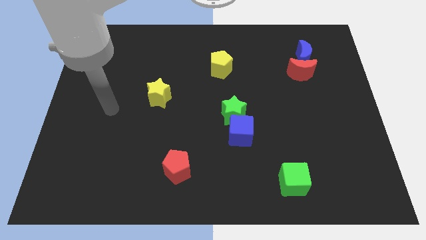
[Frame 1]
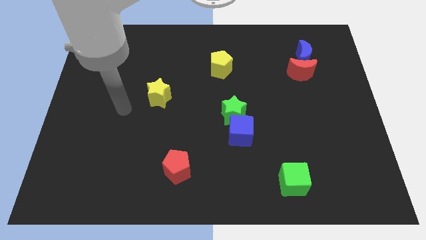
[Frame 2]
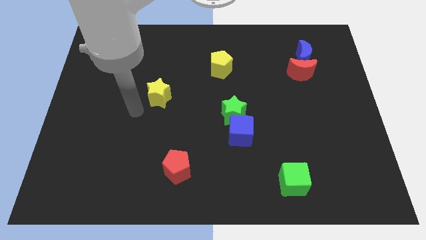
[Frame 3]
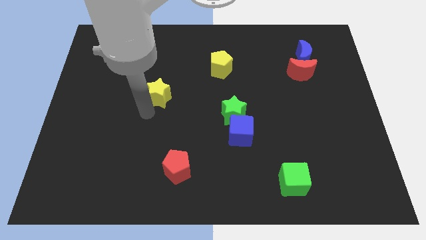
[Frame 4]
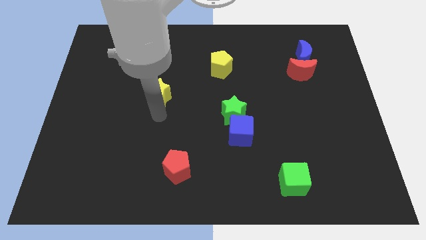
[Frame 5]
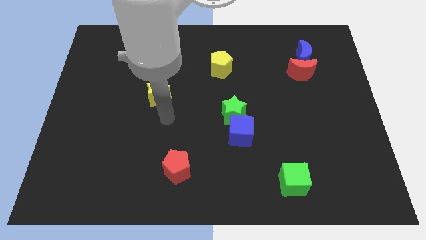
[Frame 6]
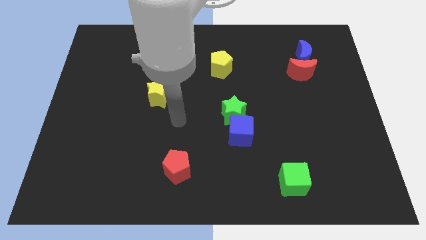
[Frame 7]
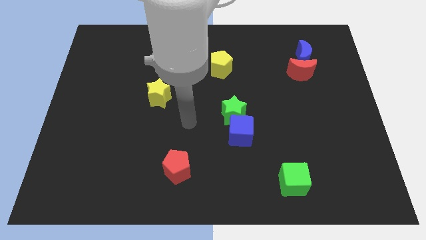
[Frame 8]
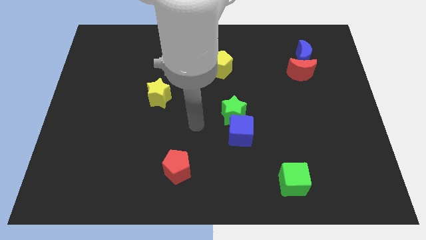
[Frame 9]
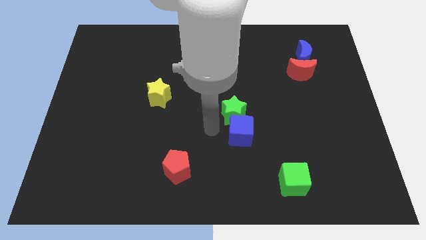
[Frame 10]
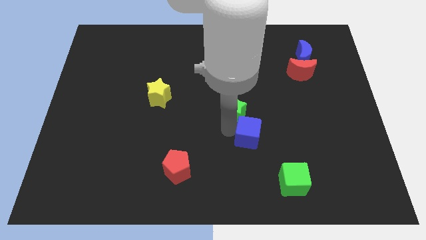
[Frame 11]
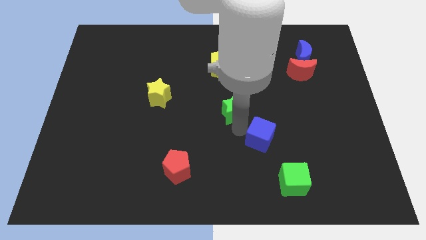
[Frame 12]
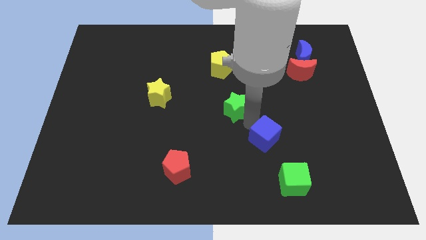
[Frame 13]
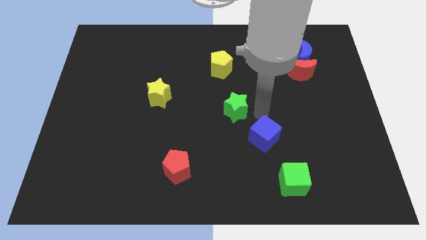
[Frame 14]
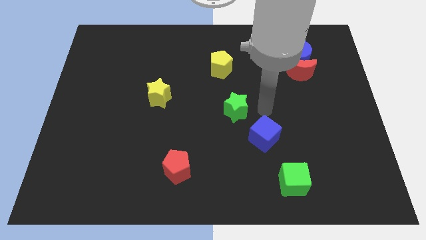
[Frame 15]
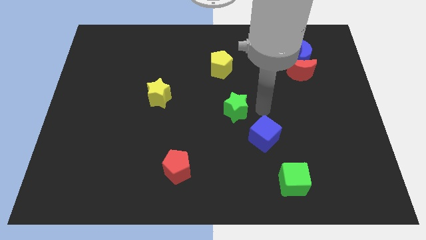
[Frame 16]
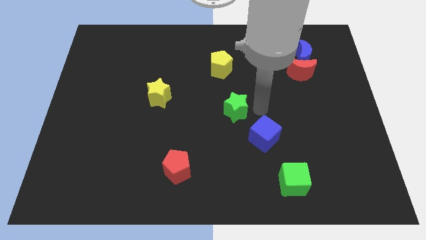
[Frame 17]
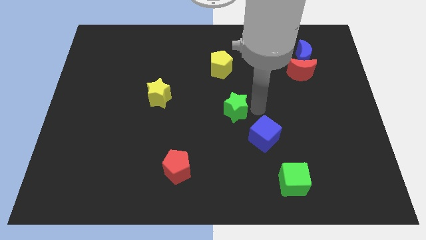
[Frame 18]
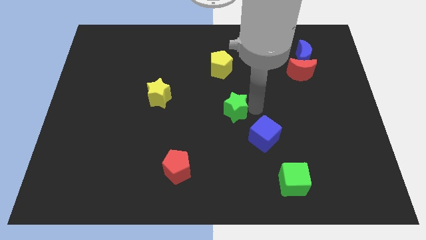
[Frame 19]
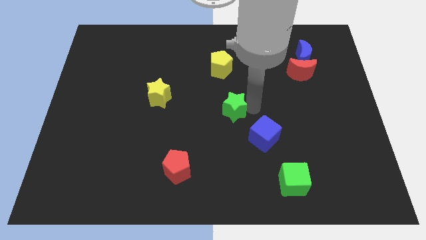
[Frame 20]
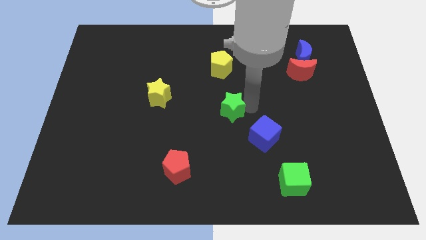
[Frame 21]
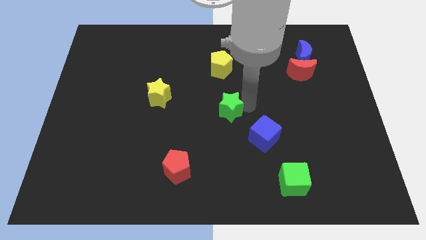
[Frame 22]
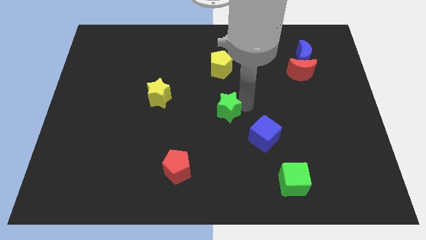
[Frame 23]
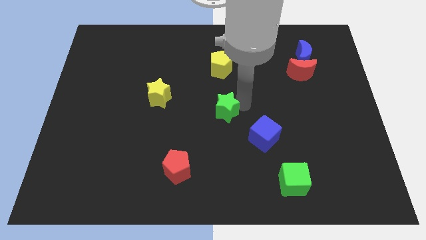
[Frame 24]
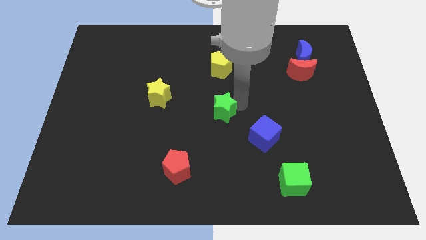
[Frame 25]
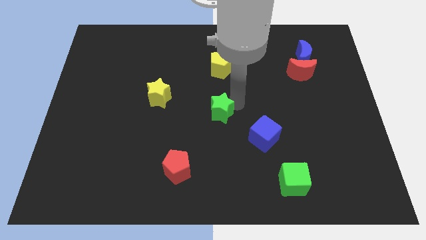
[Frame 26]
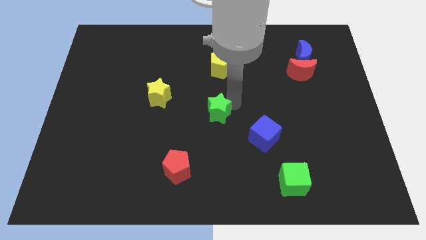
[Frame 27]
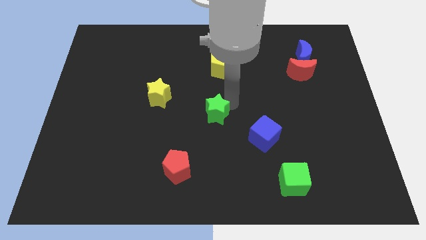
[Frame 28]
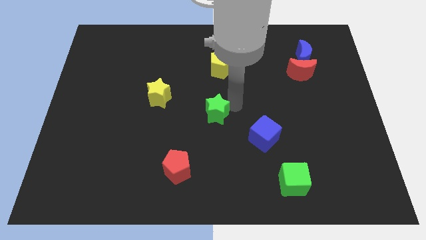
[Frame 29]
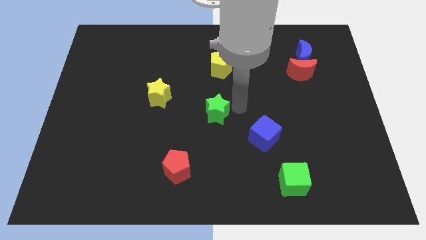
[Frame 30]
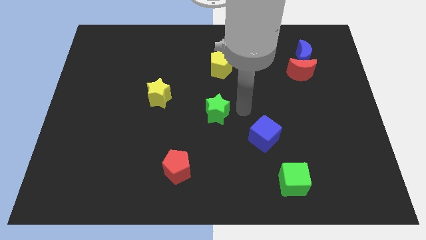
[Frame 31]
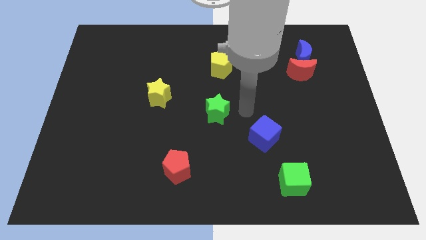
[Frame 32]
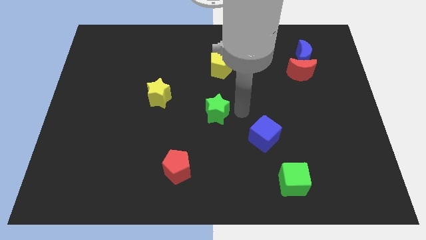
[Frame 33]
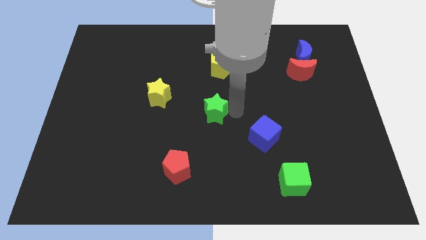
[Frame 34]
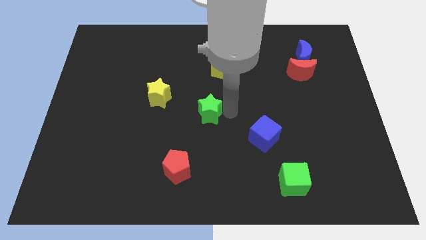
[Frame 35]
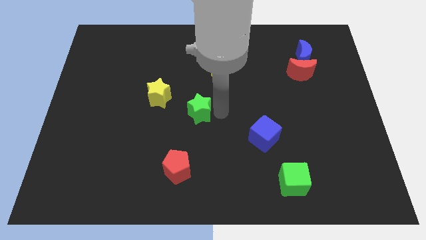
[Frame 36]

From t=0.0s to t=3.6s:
slightly push the green star to the left

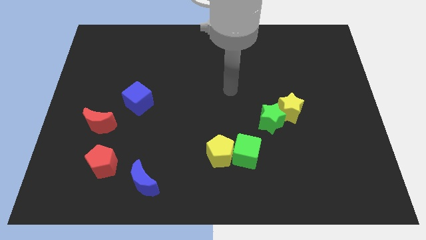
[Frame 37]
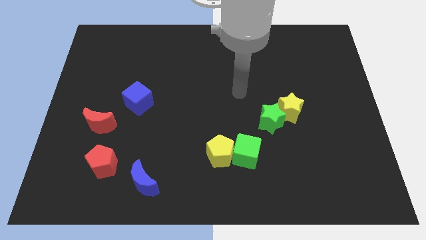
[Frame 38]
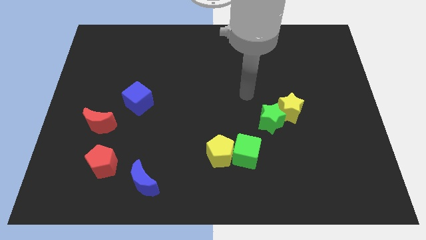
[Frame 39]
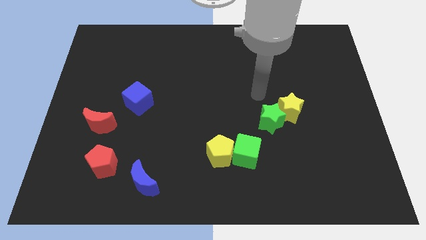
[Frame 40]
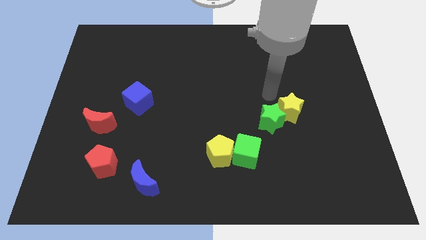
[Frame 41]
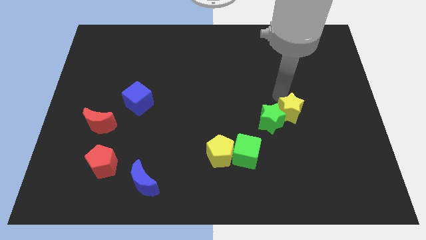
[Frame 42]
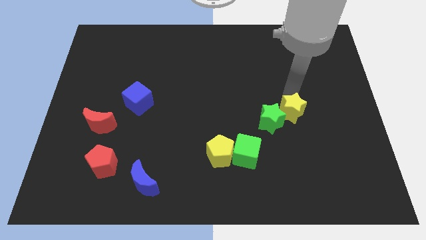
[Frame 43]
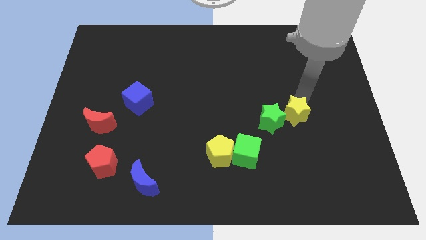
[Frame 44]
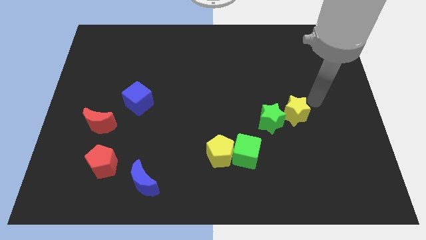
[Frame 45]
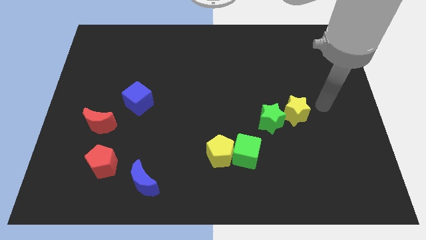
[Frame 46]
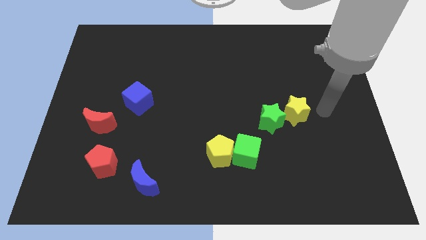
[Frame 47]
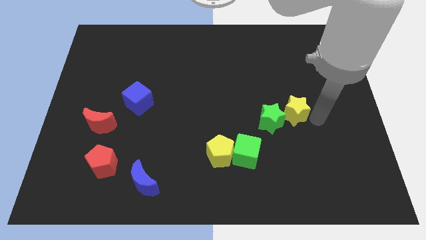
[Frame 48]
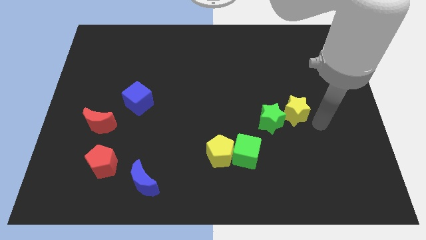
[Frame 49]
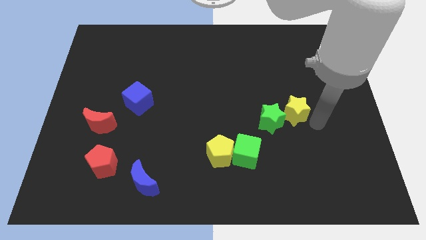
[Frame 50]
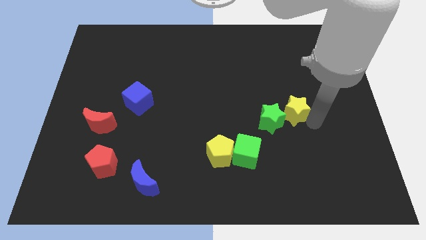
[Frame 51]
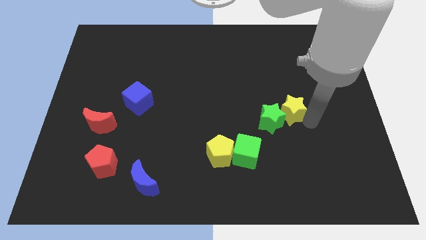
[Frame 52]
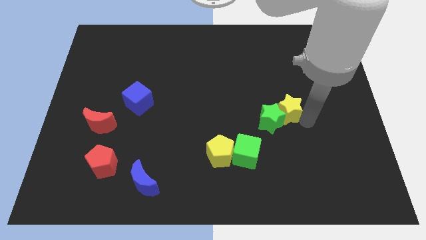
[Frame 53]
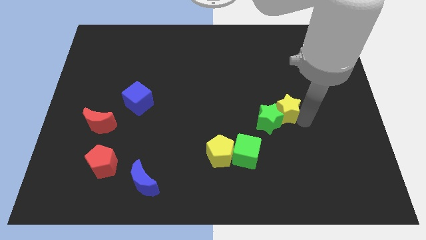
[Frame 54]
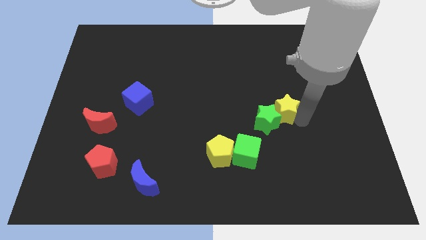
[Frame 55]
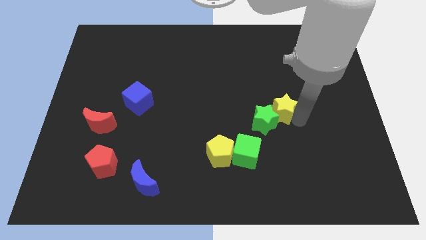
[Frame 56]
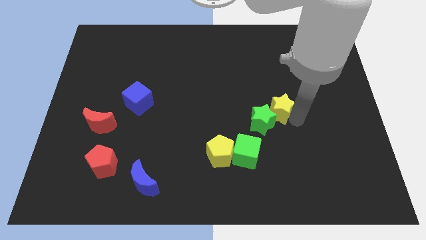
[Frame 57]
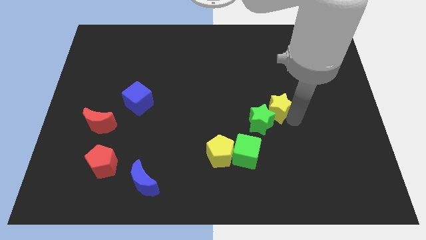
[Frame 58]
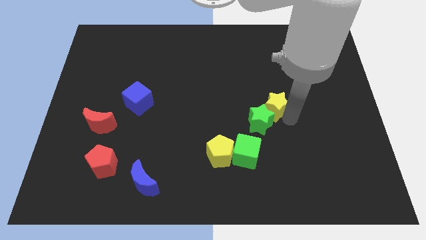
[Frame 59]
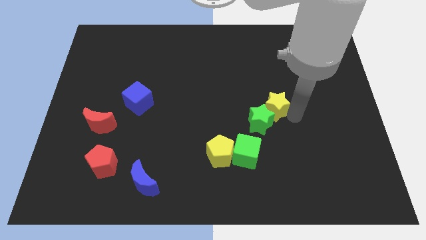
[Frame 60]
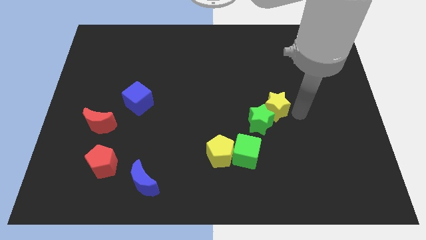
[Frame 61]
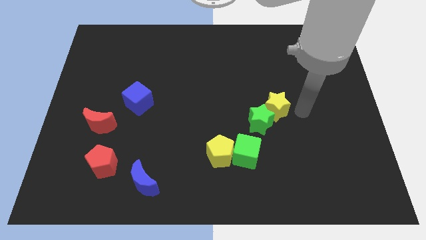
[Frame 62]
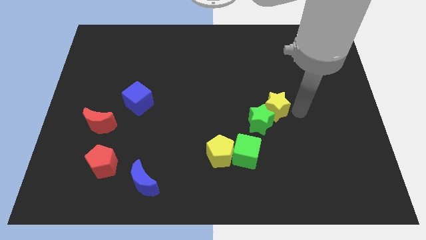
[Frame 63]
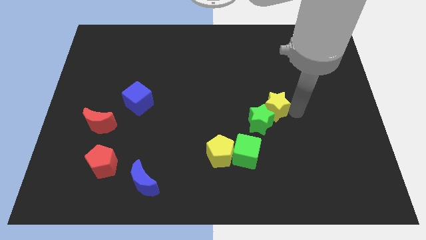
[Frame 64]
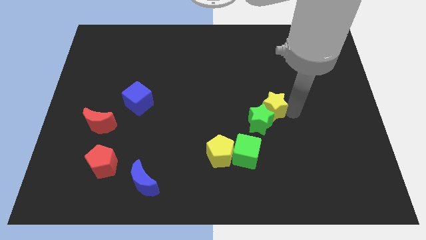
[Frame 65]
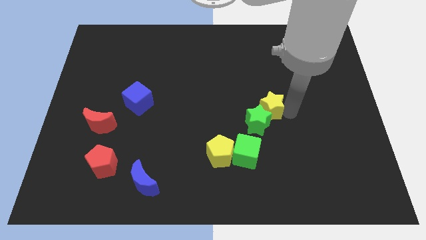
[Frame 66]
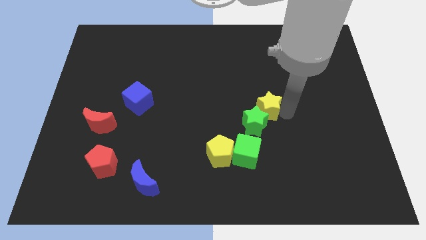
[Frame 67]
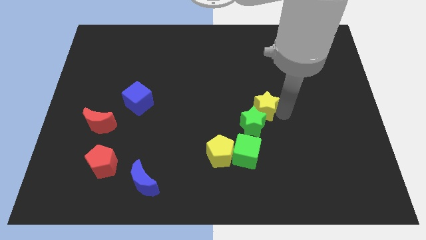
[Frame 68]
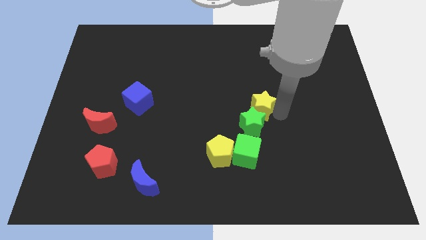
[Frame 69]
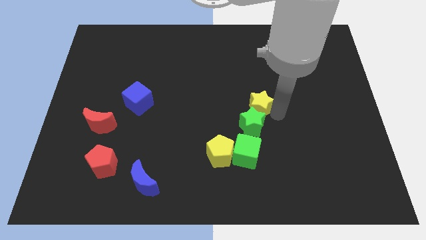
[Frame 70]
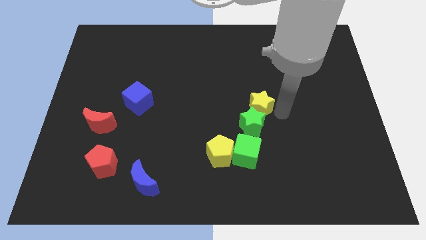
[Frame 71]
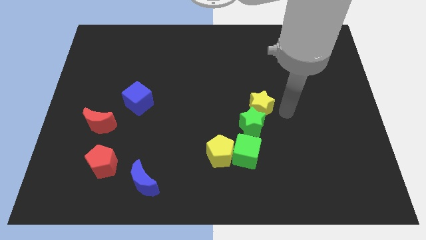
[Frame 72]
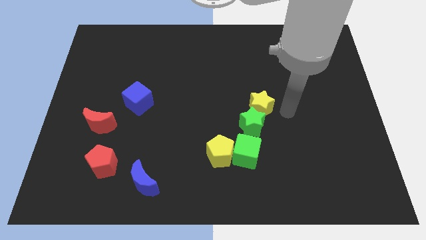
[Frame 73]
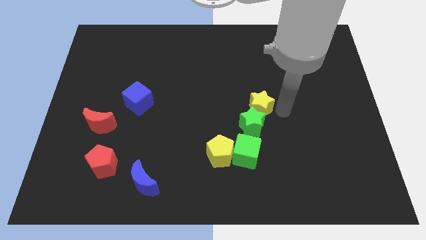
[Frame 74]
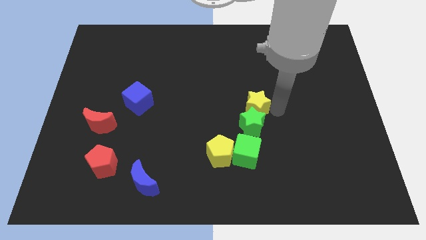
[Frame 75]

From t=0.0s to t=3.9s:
slightly slide the yellow star left

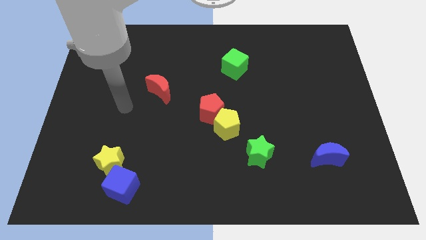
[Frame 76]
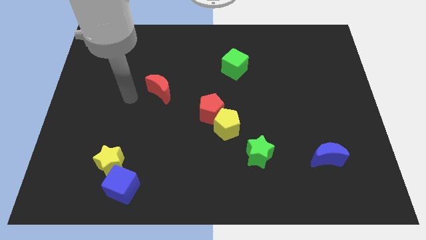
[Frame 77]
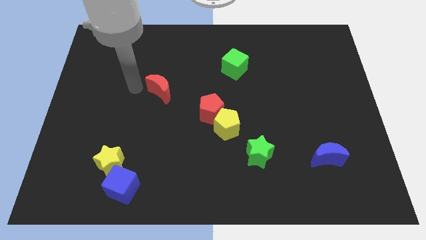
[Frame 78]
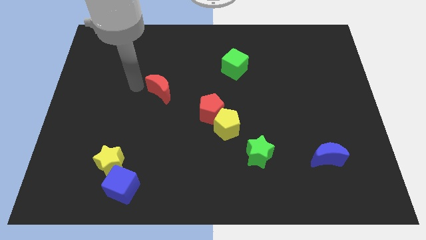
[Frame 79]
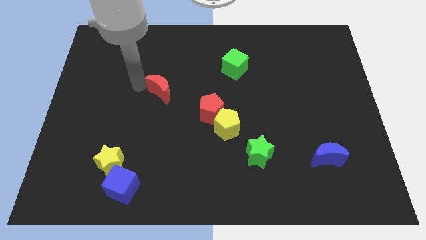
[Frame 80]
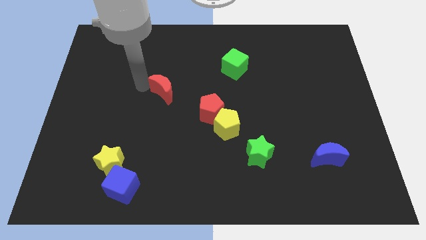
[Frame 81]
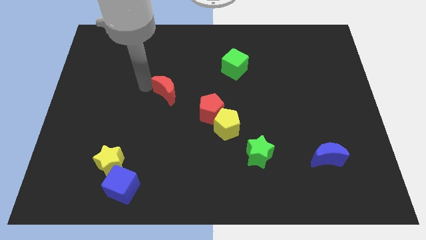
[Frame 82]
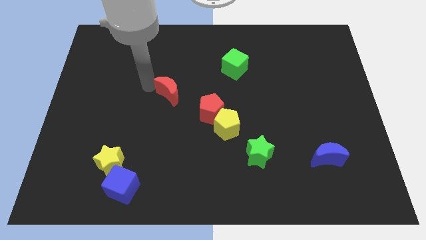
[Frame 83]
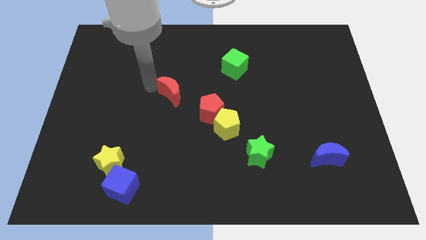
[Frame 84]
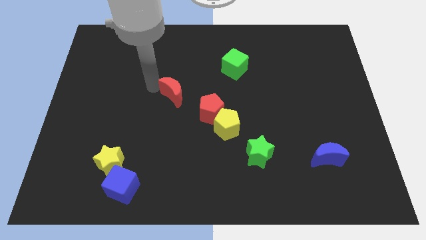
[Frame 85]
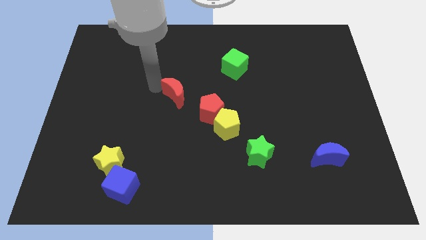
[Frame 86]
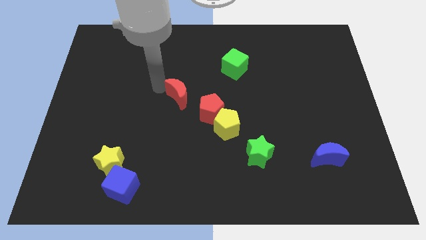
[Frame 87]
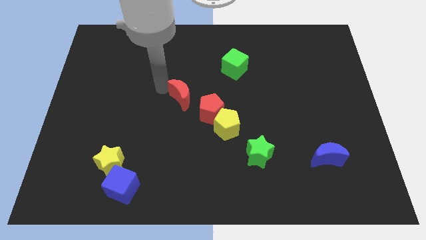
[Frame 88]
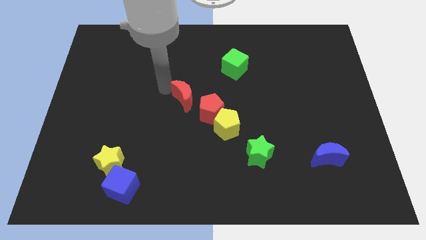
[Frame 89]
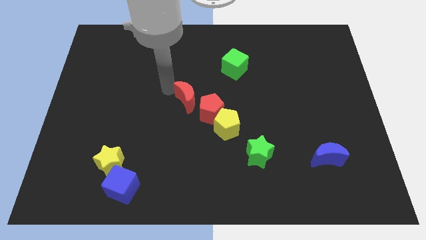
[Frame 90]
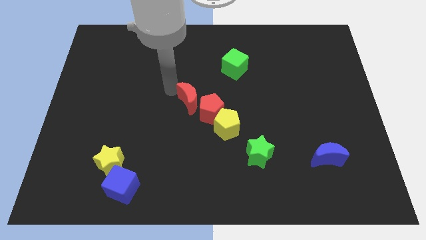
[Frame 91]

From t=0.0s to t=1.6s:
slide the red moon to the right a bit
